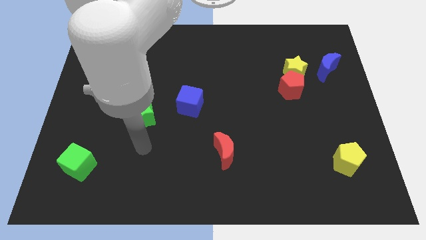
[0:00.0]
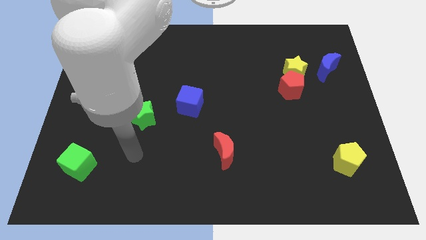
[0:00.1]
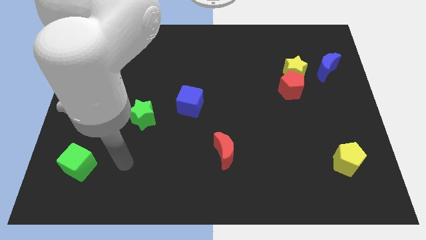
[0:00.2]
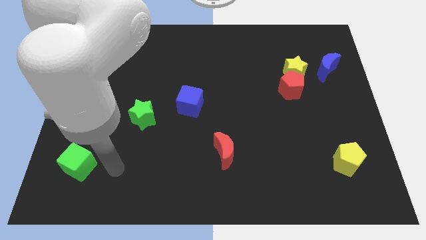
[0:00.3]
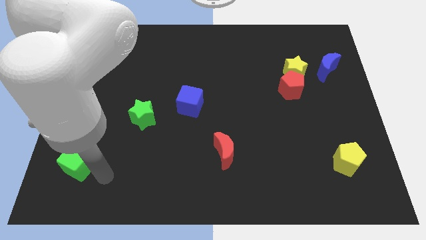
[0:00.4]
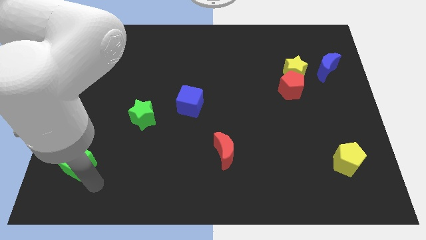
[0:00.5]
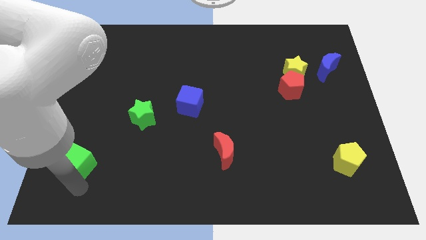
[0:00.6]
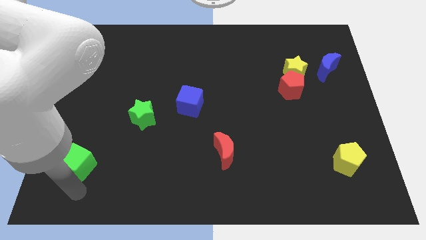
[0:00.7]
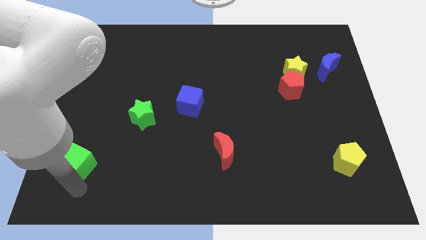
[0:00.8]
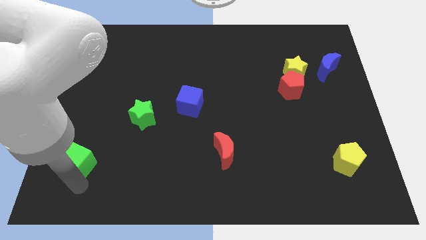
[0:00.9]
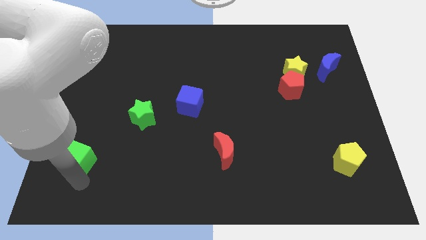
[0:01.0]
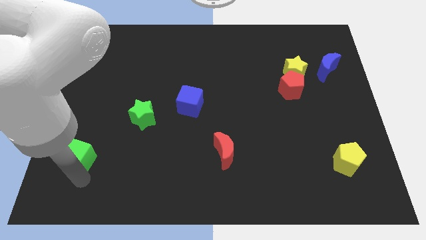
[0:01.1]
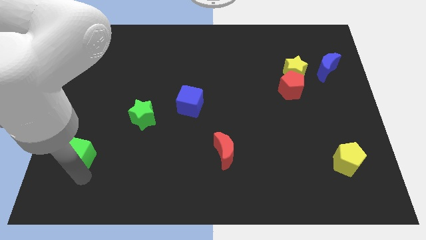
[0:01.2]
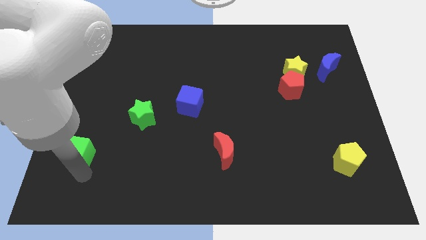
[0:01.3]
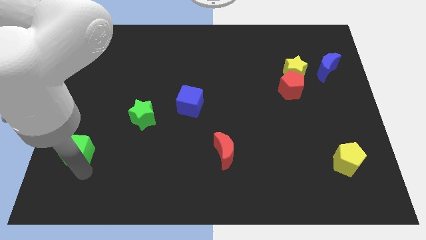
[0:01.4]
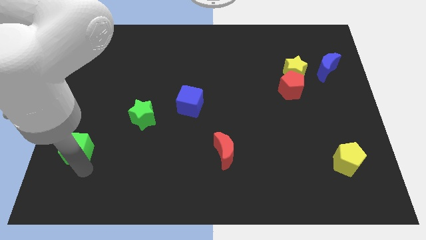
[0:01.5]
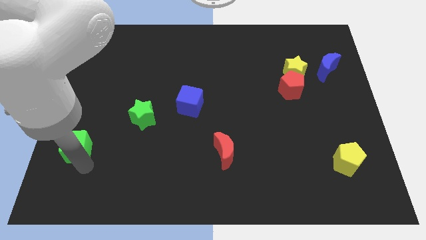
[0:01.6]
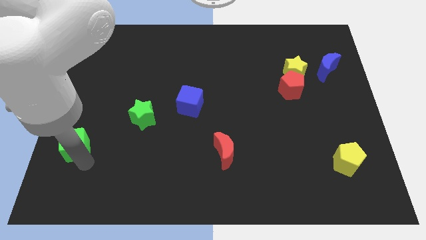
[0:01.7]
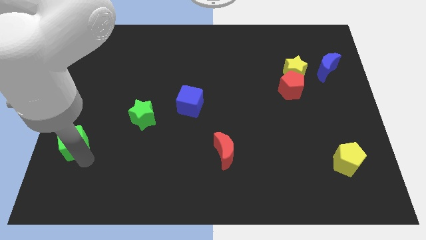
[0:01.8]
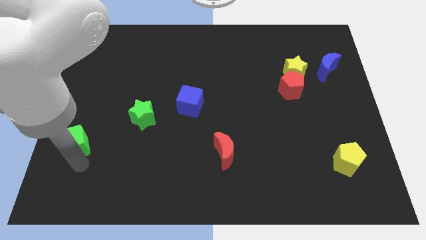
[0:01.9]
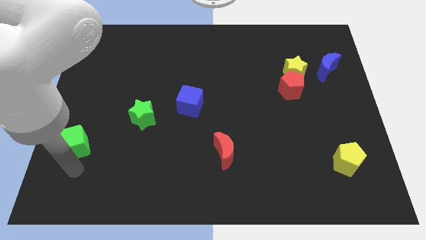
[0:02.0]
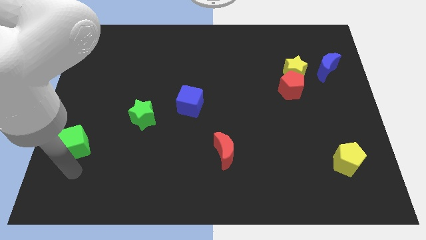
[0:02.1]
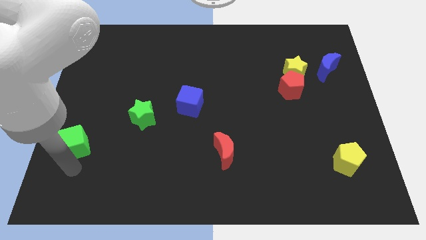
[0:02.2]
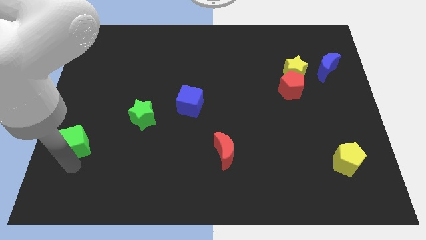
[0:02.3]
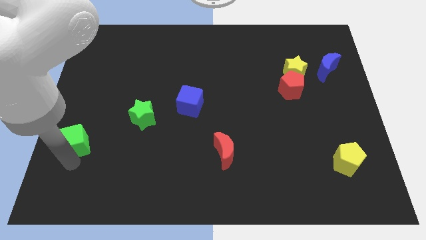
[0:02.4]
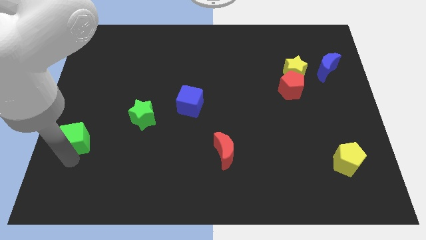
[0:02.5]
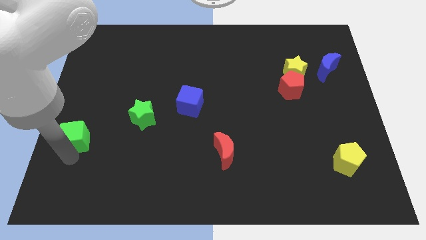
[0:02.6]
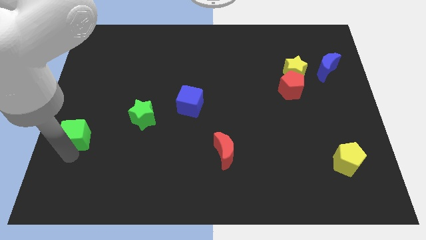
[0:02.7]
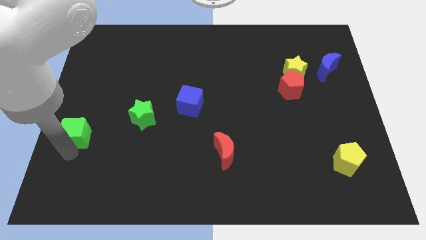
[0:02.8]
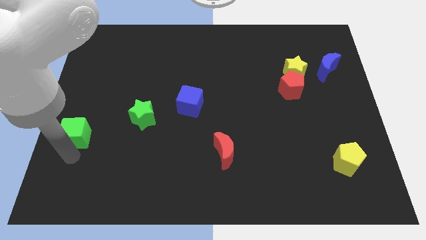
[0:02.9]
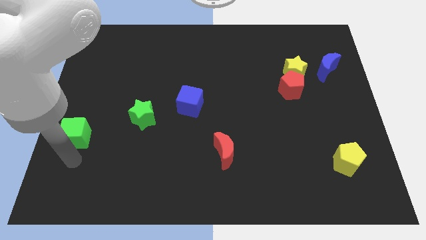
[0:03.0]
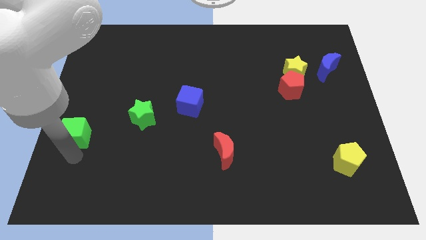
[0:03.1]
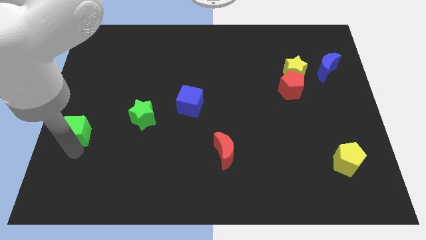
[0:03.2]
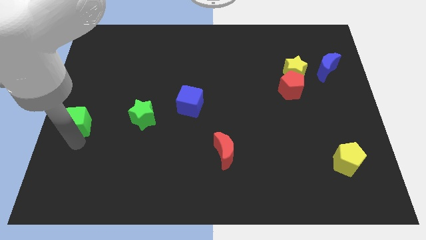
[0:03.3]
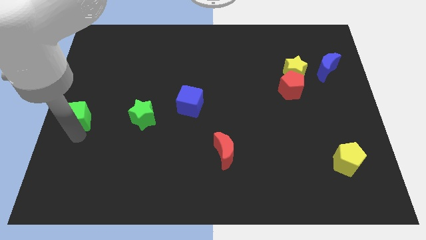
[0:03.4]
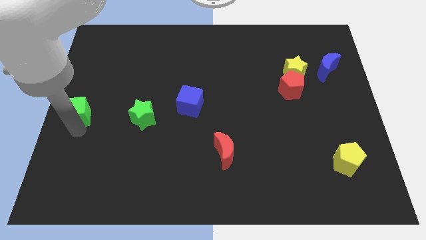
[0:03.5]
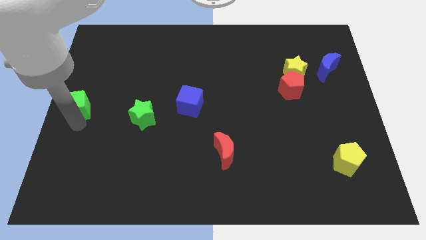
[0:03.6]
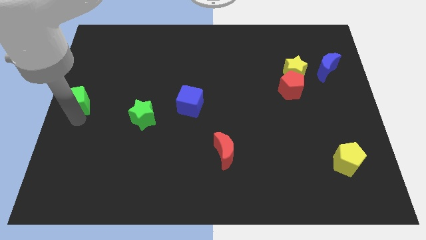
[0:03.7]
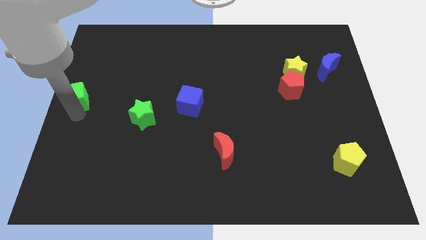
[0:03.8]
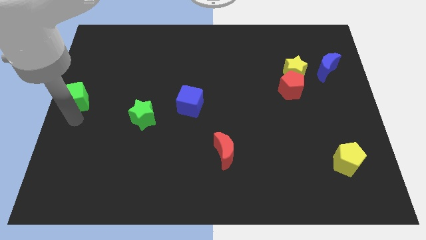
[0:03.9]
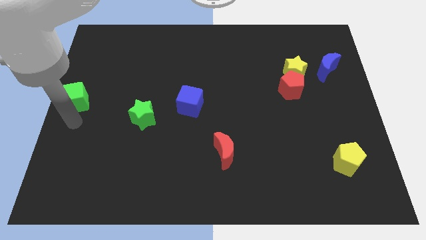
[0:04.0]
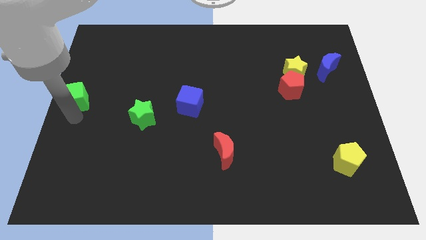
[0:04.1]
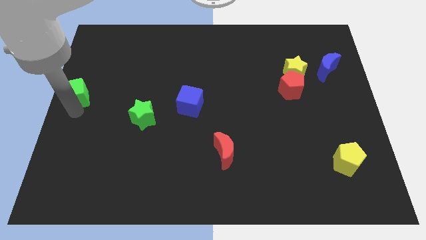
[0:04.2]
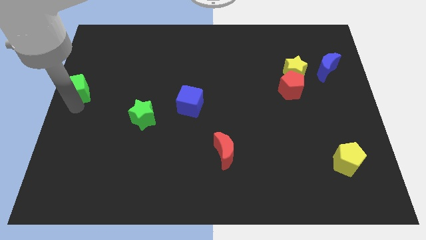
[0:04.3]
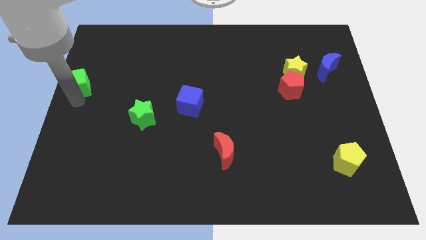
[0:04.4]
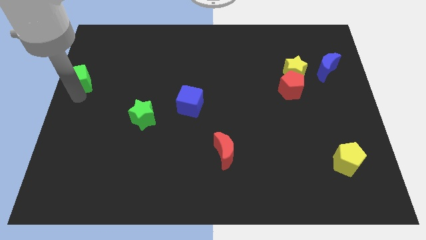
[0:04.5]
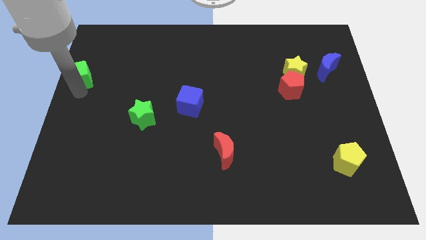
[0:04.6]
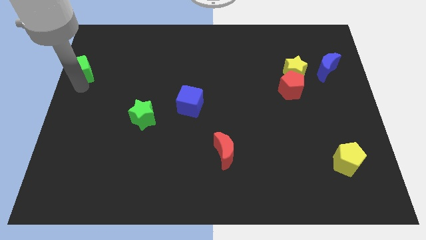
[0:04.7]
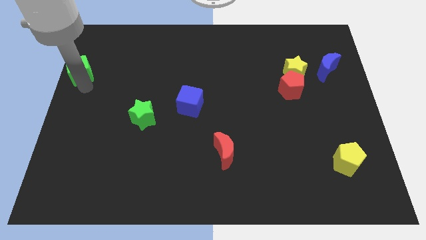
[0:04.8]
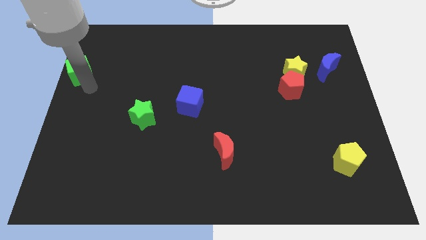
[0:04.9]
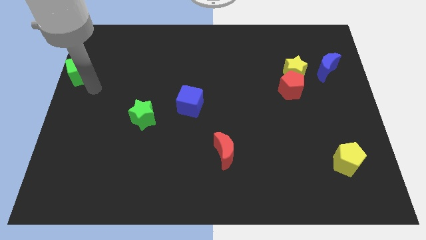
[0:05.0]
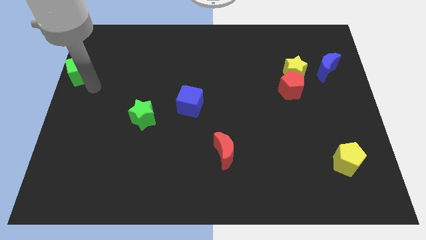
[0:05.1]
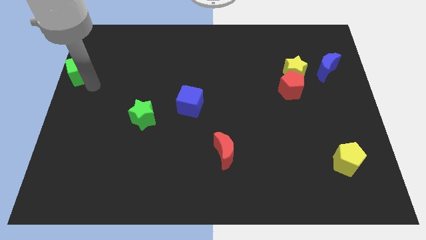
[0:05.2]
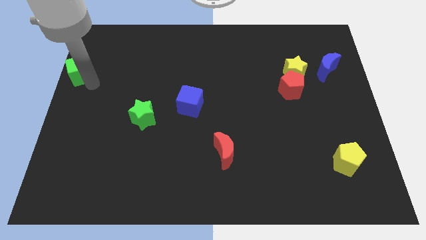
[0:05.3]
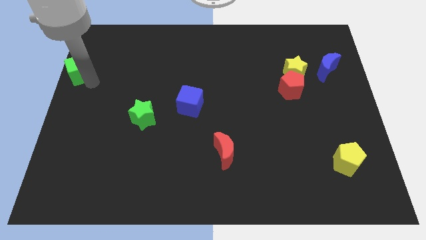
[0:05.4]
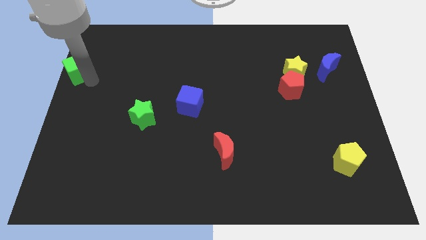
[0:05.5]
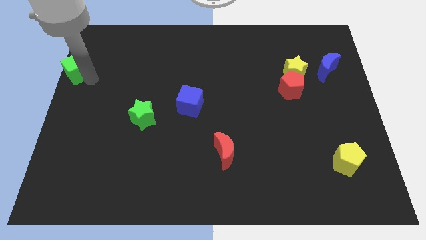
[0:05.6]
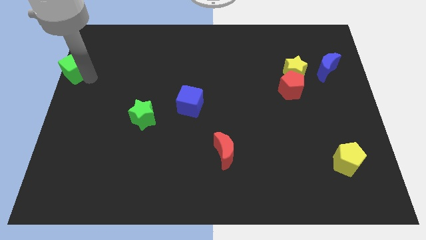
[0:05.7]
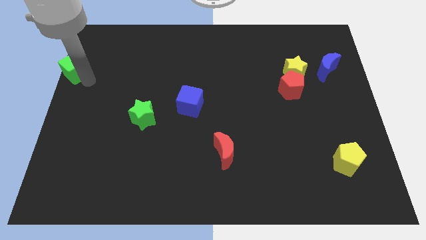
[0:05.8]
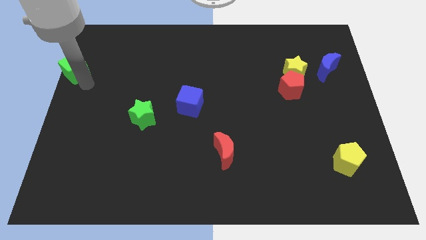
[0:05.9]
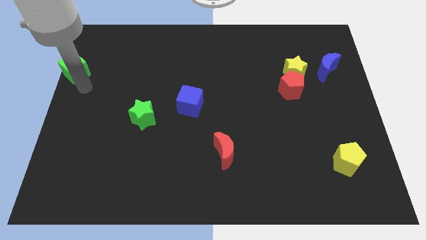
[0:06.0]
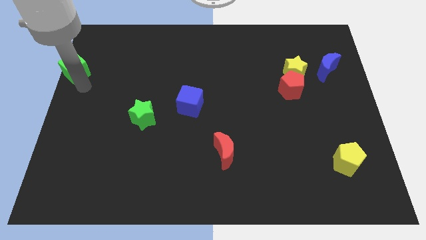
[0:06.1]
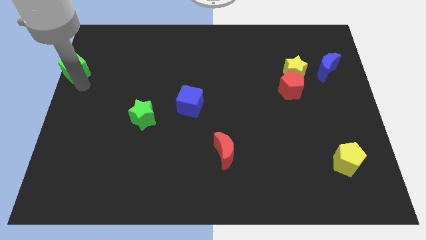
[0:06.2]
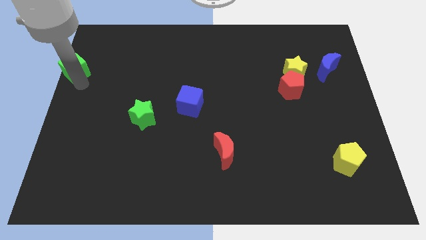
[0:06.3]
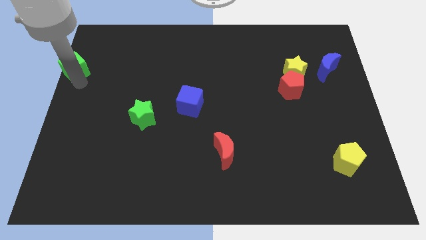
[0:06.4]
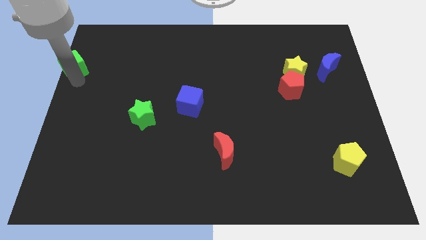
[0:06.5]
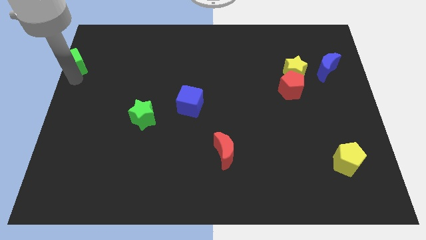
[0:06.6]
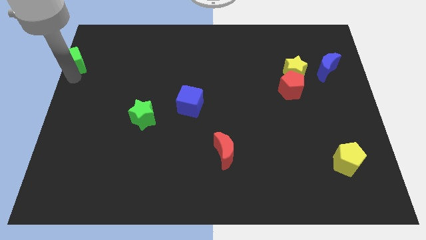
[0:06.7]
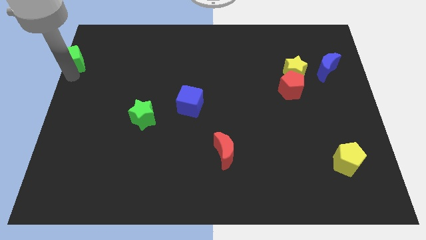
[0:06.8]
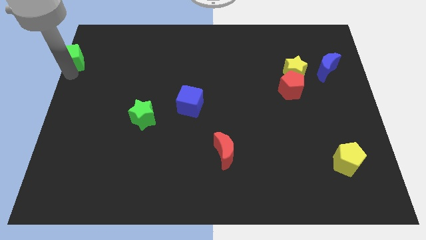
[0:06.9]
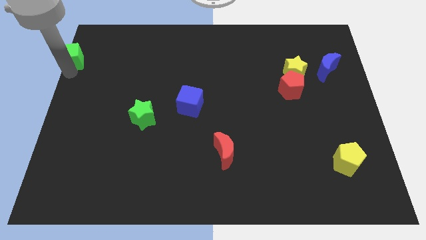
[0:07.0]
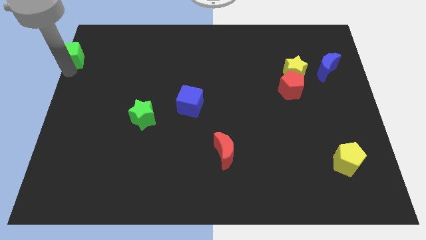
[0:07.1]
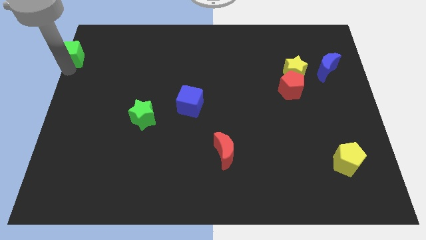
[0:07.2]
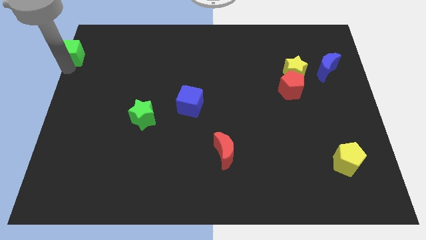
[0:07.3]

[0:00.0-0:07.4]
put the green cube to the top left
